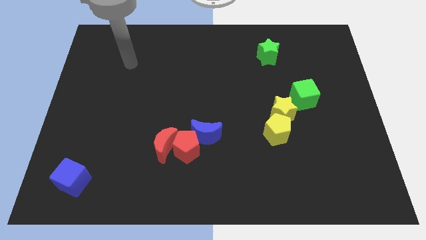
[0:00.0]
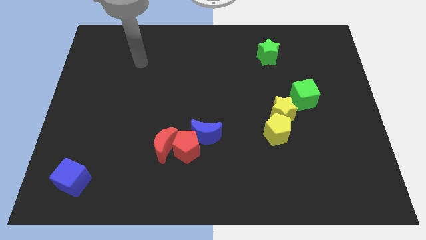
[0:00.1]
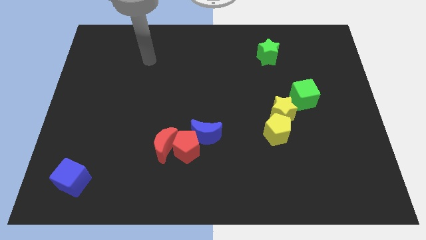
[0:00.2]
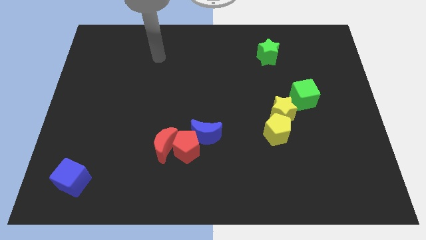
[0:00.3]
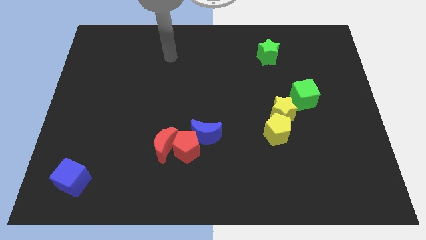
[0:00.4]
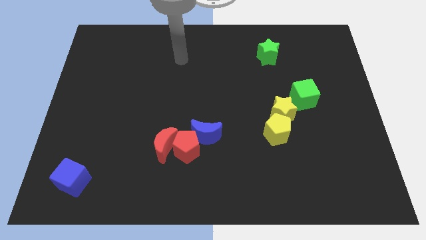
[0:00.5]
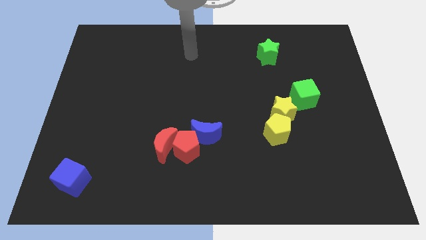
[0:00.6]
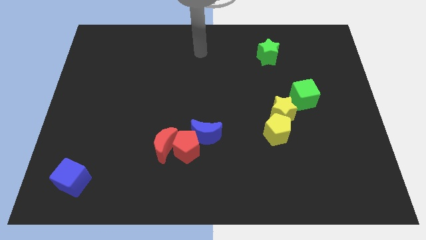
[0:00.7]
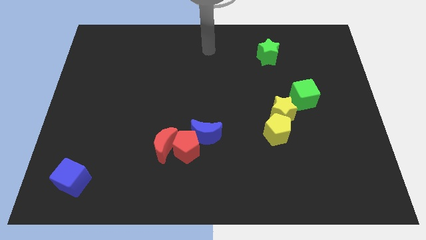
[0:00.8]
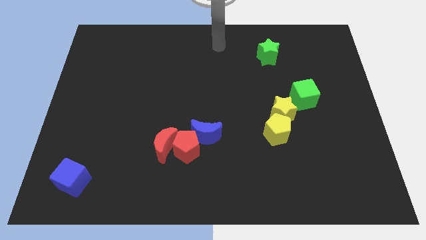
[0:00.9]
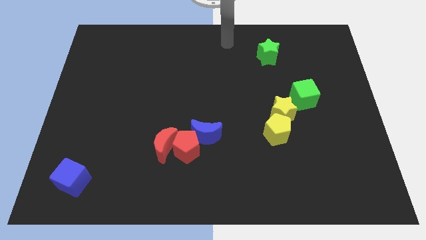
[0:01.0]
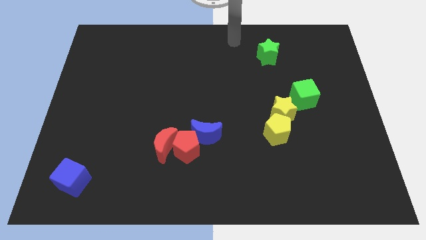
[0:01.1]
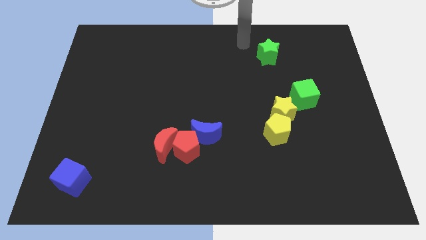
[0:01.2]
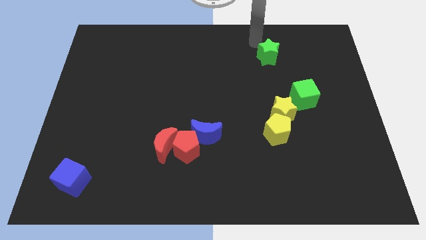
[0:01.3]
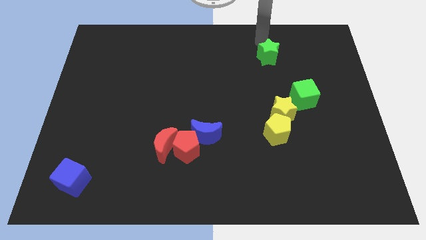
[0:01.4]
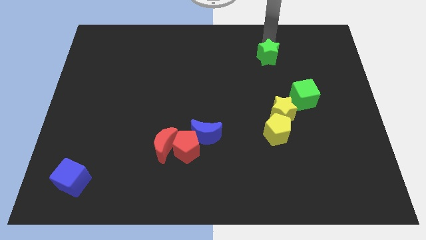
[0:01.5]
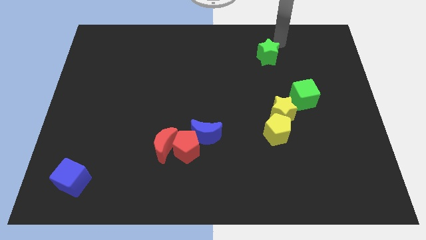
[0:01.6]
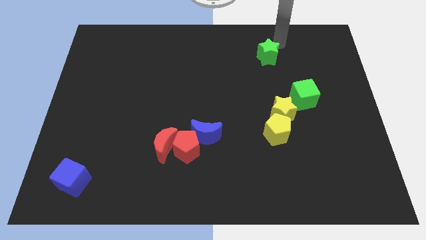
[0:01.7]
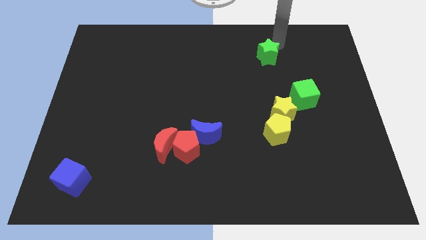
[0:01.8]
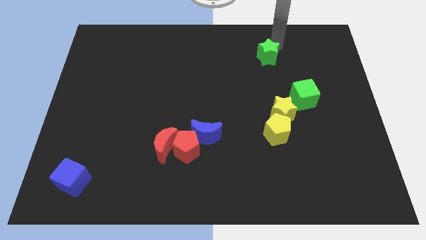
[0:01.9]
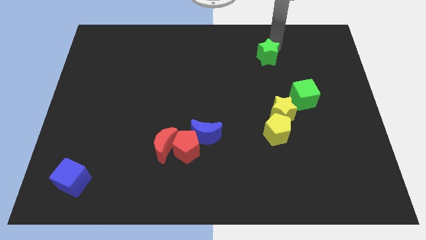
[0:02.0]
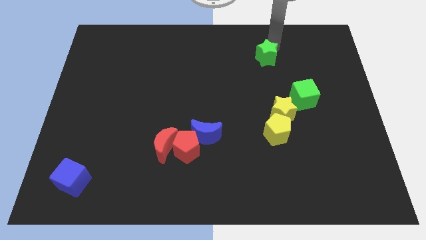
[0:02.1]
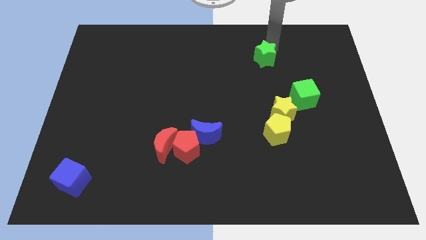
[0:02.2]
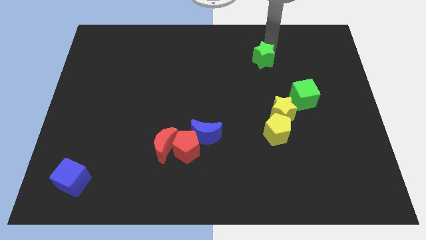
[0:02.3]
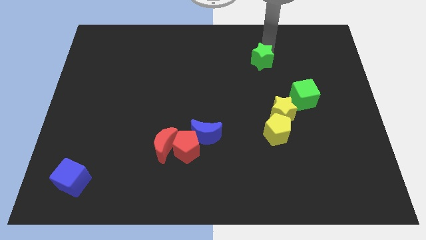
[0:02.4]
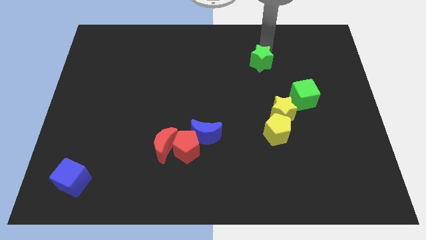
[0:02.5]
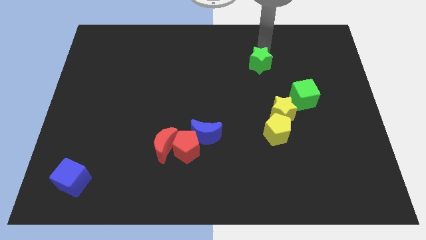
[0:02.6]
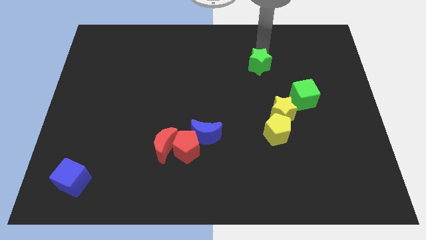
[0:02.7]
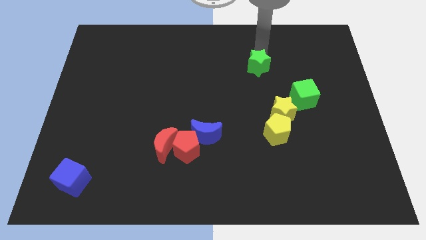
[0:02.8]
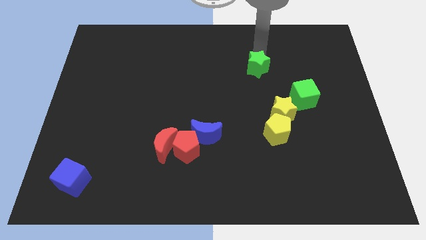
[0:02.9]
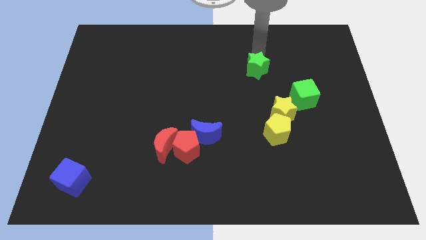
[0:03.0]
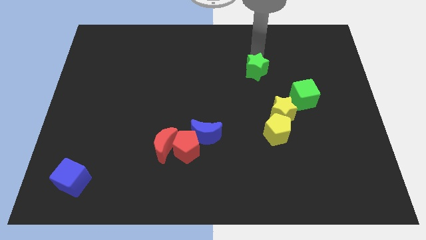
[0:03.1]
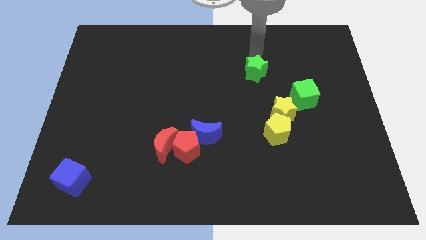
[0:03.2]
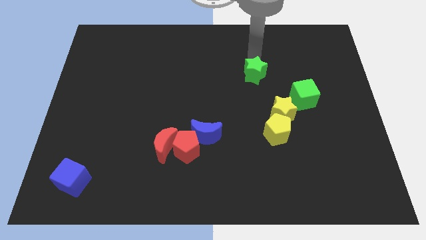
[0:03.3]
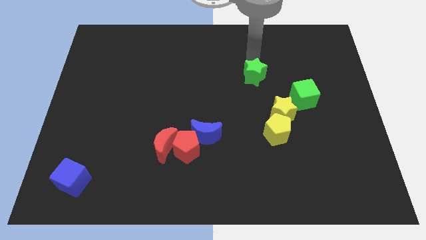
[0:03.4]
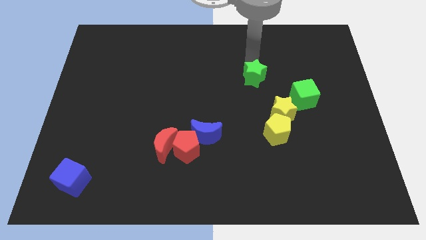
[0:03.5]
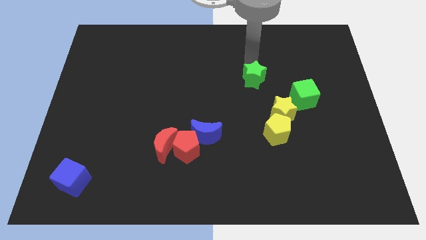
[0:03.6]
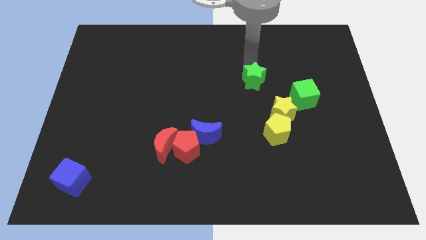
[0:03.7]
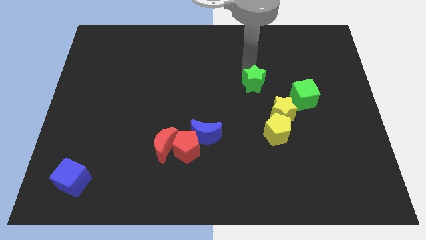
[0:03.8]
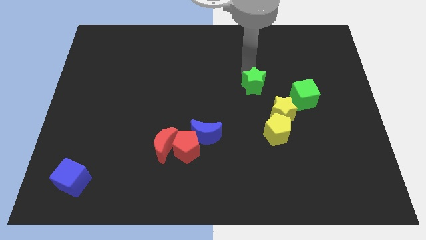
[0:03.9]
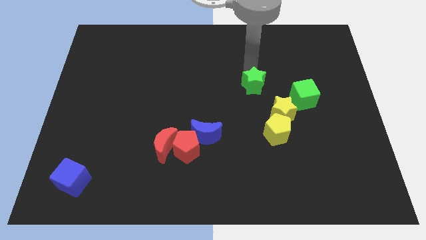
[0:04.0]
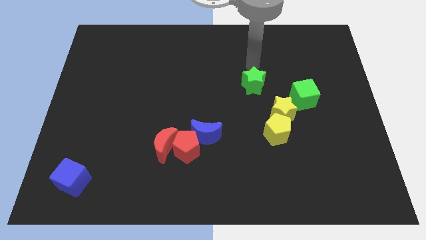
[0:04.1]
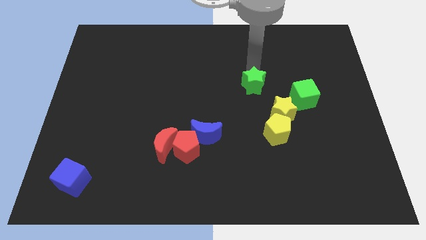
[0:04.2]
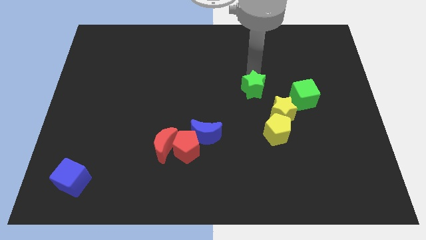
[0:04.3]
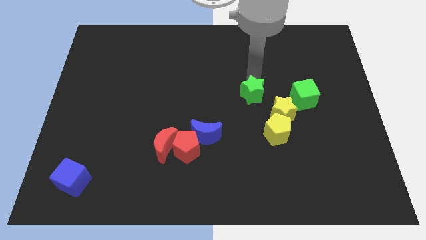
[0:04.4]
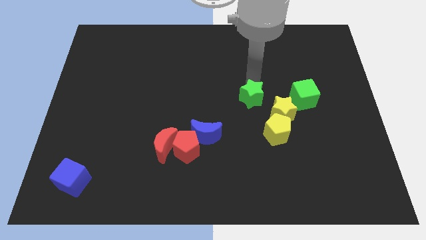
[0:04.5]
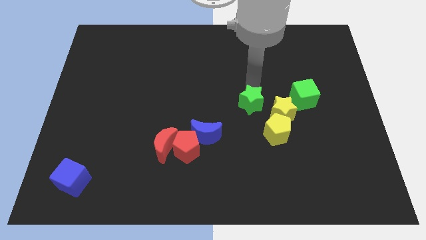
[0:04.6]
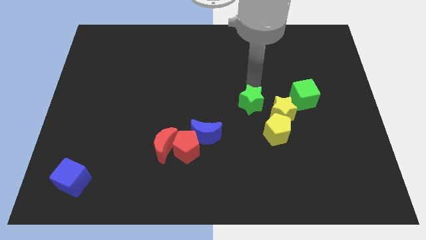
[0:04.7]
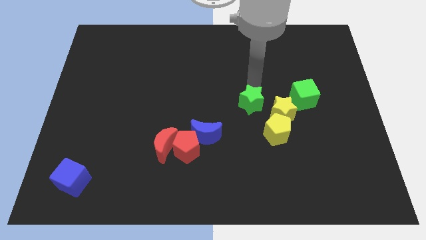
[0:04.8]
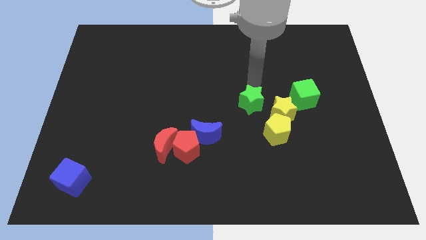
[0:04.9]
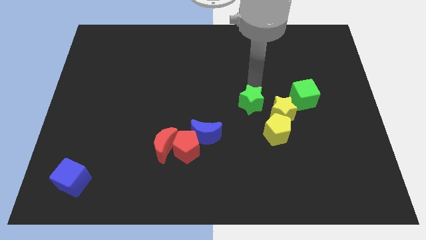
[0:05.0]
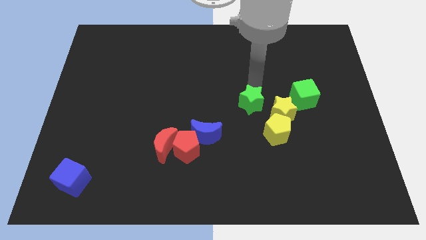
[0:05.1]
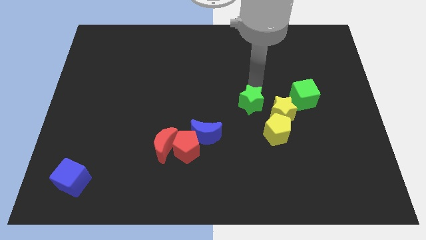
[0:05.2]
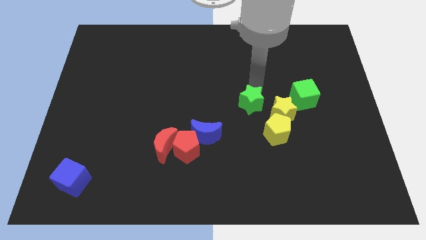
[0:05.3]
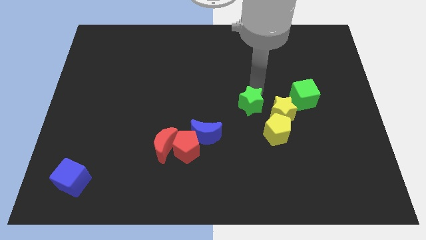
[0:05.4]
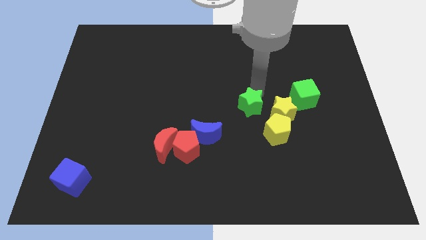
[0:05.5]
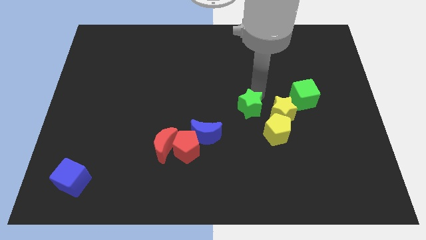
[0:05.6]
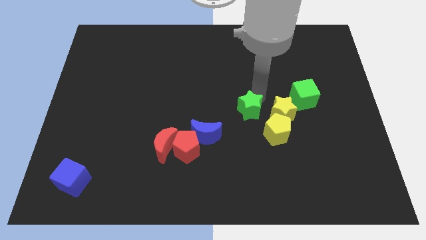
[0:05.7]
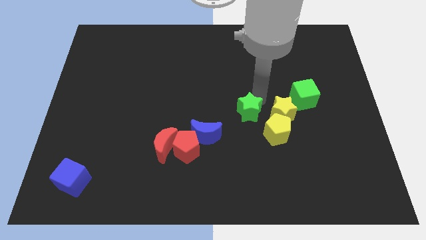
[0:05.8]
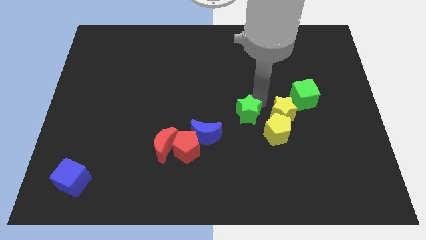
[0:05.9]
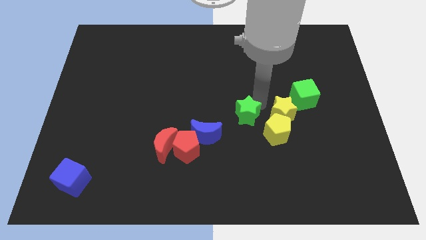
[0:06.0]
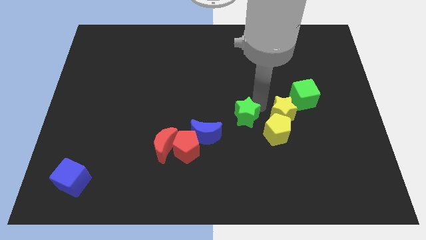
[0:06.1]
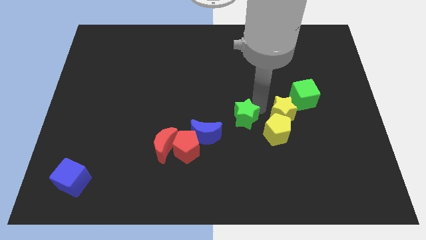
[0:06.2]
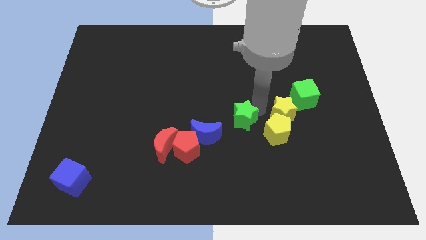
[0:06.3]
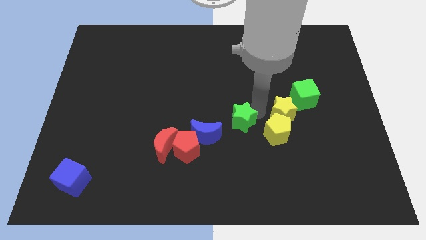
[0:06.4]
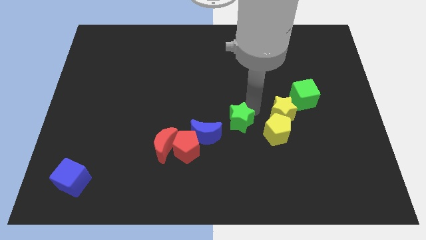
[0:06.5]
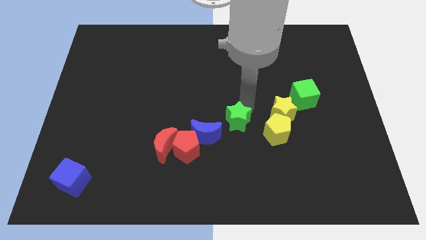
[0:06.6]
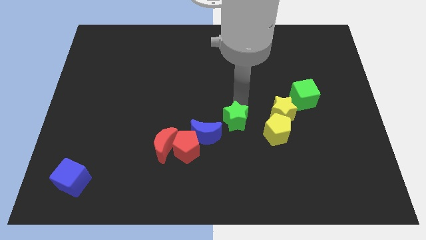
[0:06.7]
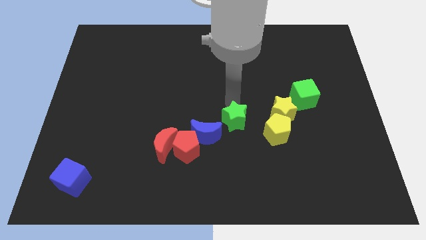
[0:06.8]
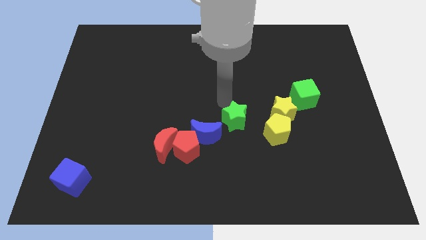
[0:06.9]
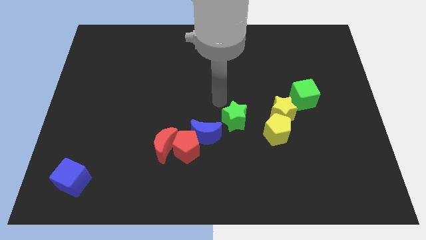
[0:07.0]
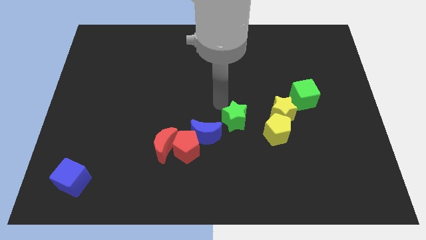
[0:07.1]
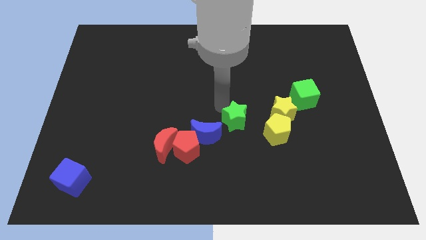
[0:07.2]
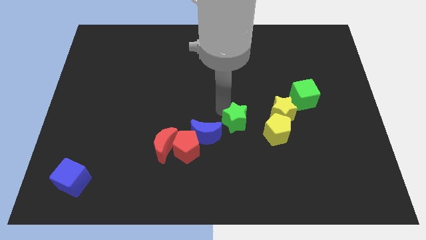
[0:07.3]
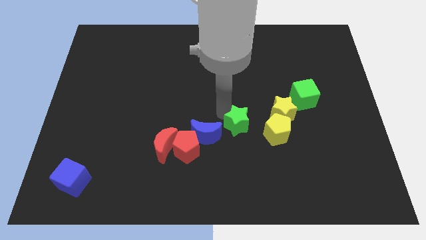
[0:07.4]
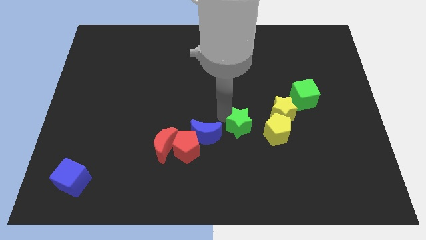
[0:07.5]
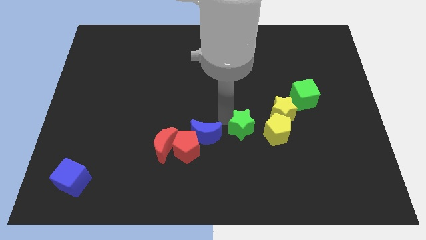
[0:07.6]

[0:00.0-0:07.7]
move the green star downwards
